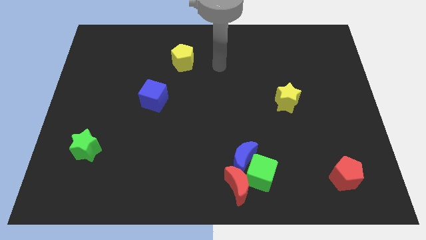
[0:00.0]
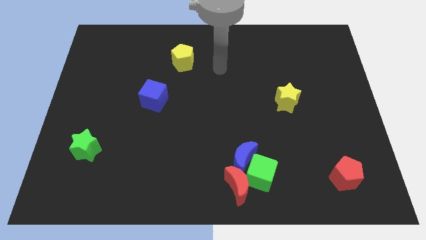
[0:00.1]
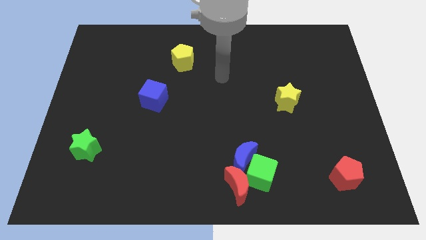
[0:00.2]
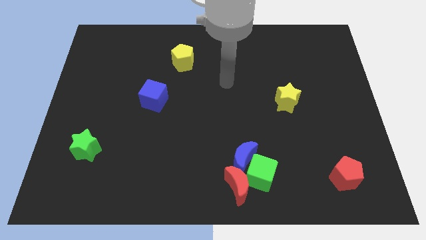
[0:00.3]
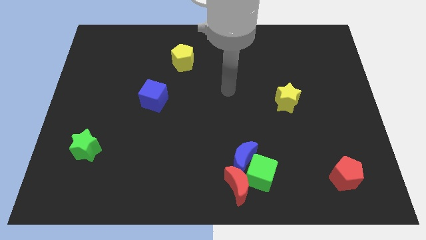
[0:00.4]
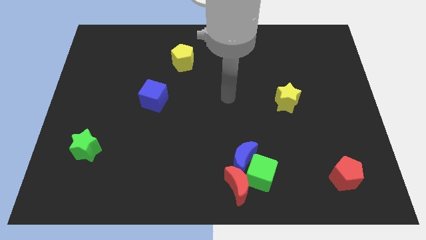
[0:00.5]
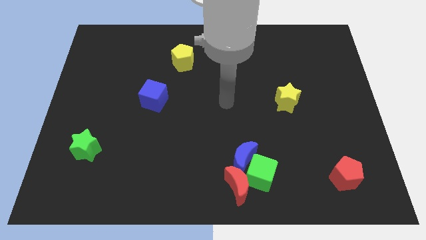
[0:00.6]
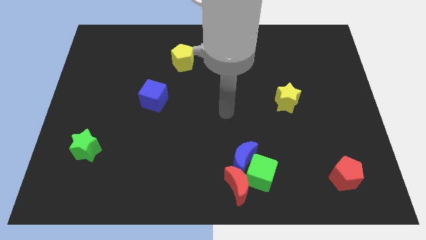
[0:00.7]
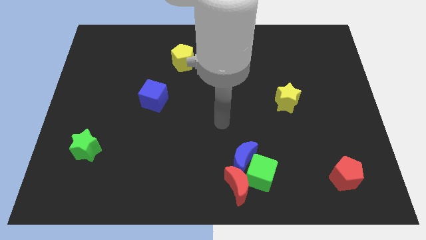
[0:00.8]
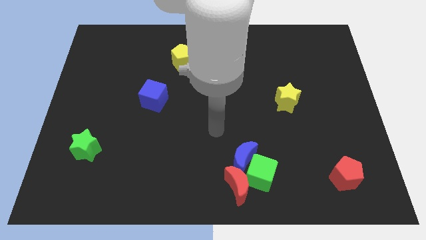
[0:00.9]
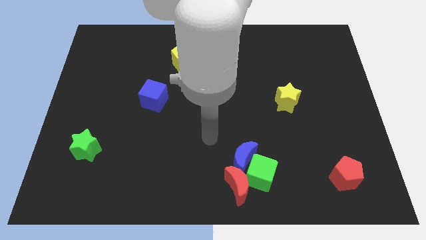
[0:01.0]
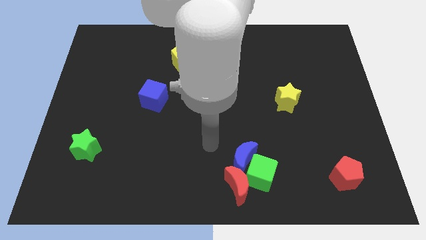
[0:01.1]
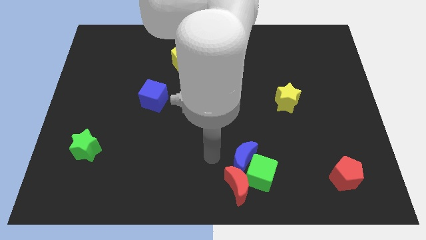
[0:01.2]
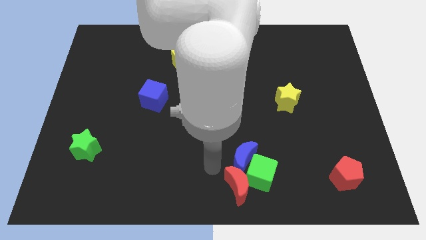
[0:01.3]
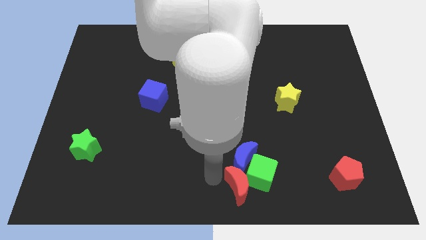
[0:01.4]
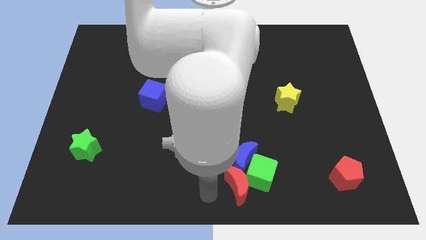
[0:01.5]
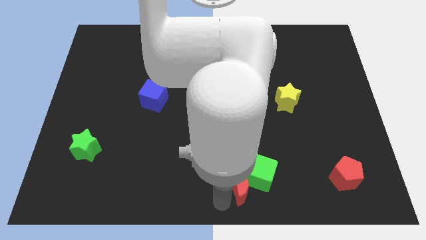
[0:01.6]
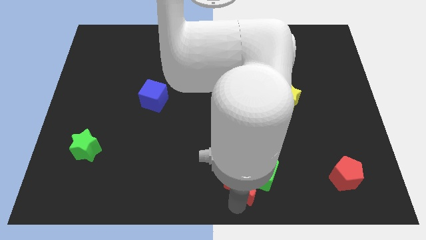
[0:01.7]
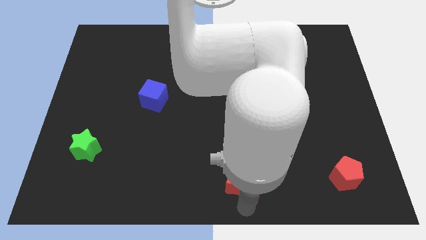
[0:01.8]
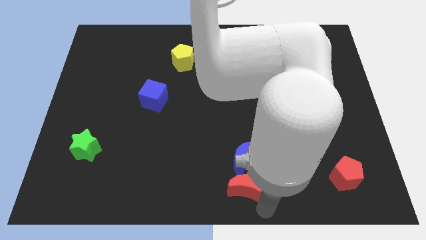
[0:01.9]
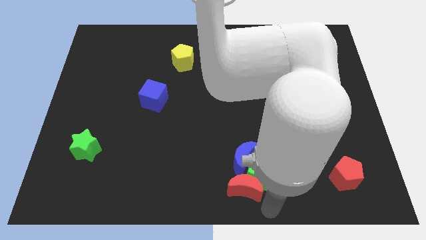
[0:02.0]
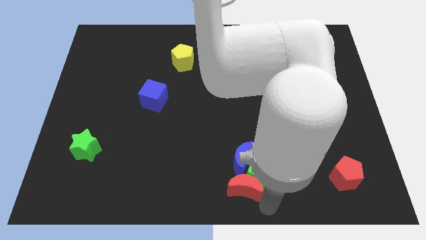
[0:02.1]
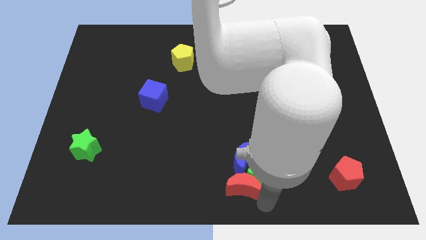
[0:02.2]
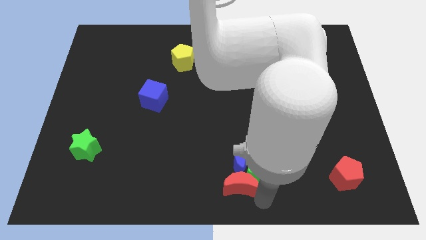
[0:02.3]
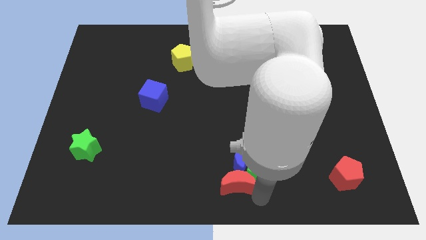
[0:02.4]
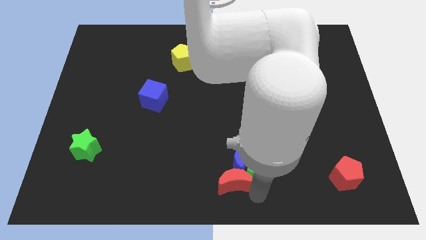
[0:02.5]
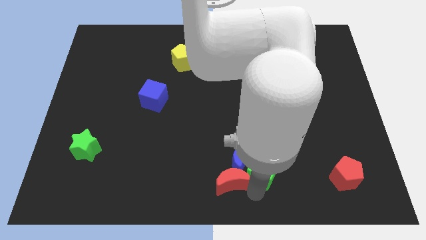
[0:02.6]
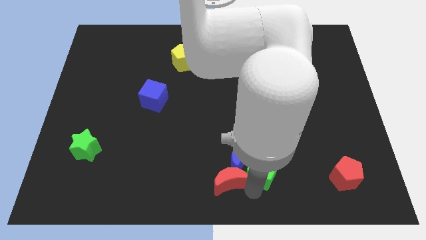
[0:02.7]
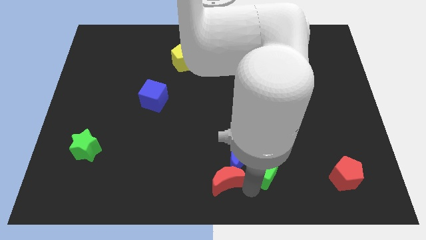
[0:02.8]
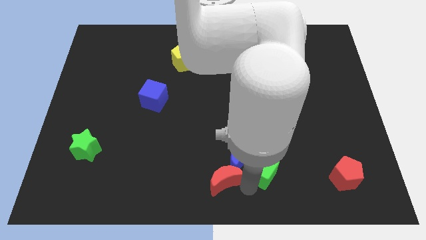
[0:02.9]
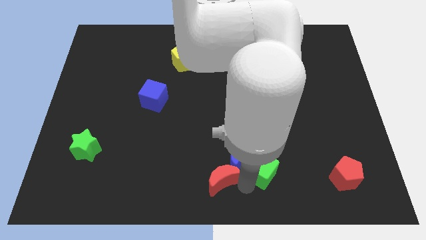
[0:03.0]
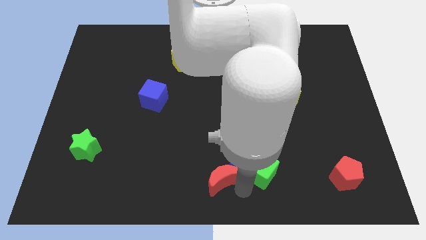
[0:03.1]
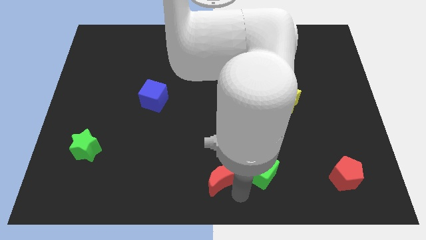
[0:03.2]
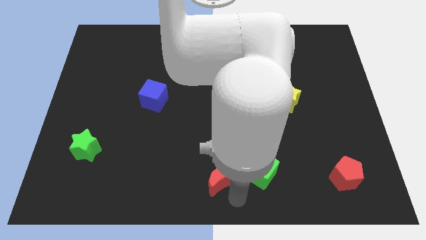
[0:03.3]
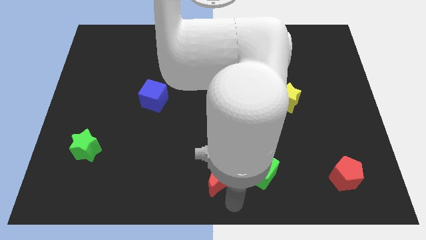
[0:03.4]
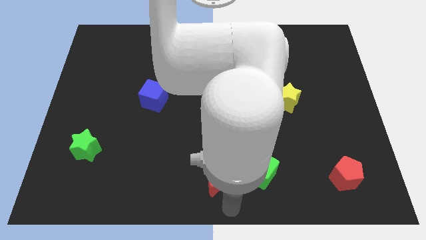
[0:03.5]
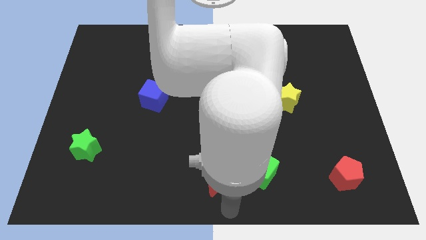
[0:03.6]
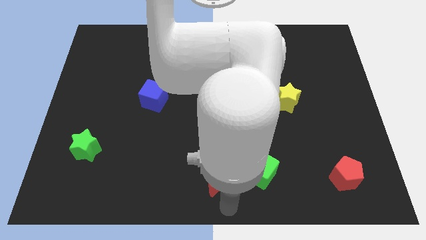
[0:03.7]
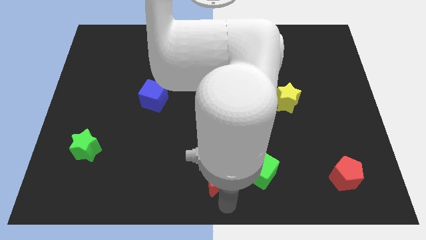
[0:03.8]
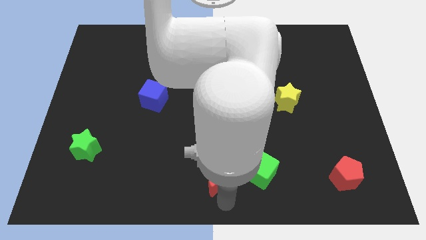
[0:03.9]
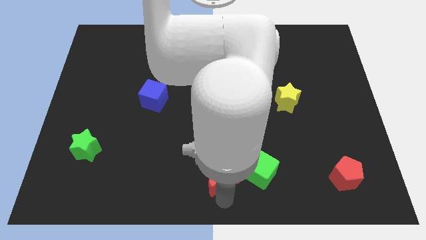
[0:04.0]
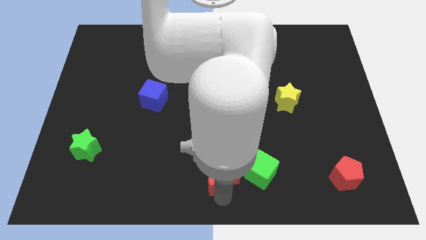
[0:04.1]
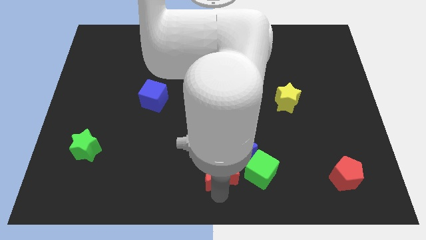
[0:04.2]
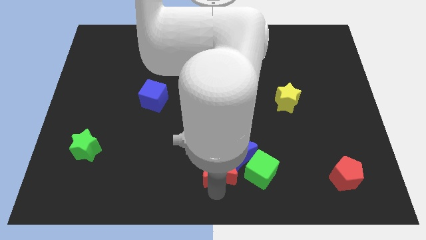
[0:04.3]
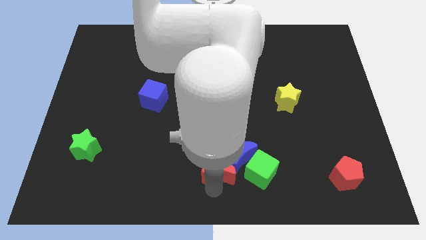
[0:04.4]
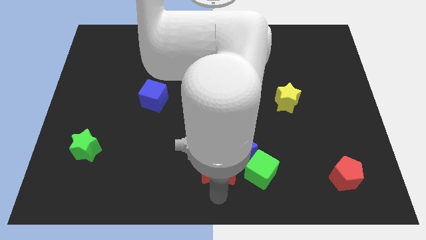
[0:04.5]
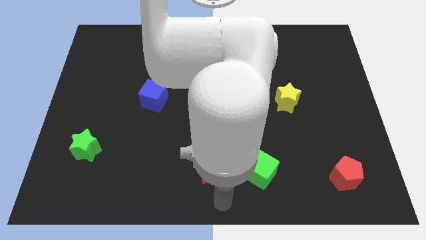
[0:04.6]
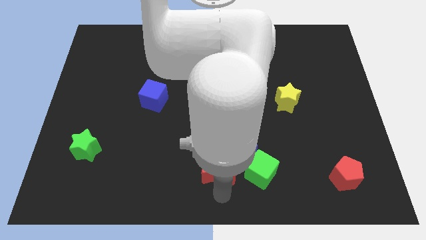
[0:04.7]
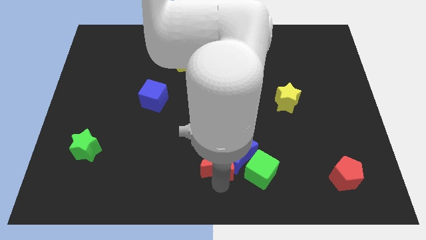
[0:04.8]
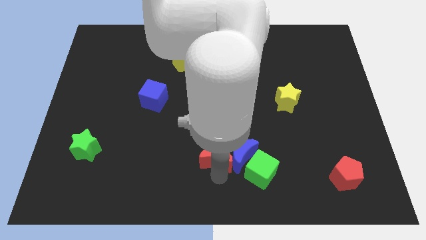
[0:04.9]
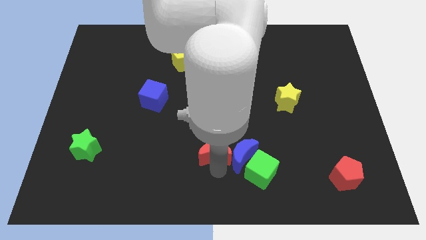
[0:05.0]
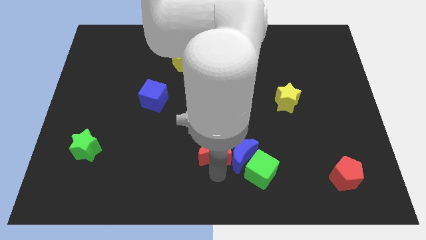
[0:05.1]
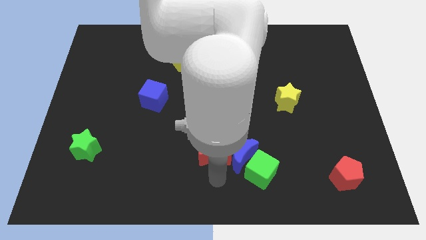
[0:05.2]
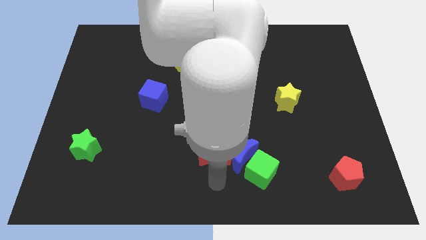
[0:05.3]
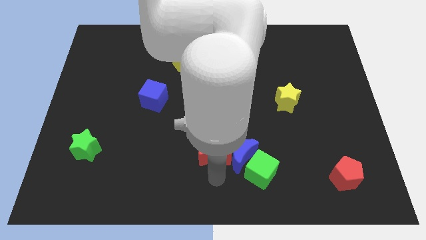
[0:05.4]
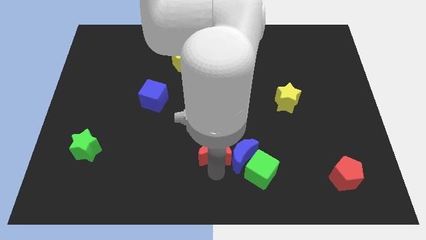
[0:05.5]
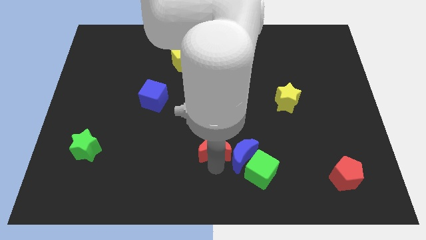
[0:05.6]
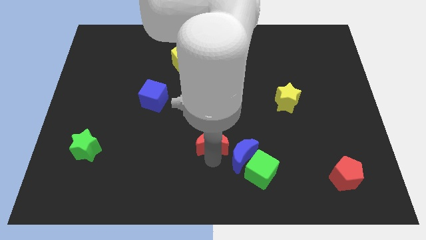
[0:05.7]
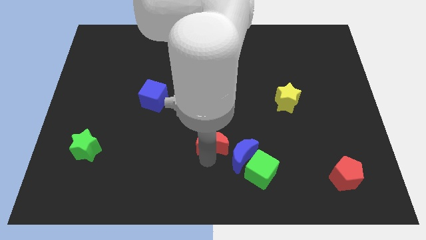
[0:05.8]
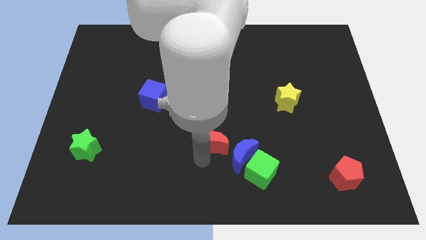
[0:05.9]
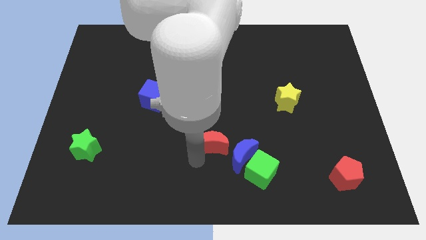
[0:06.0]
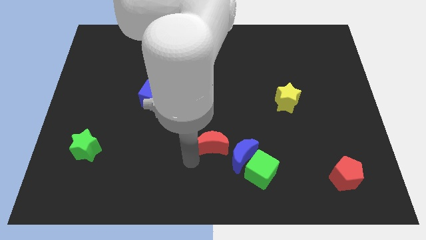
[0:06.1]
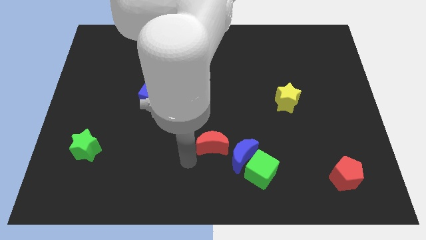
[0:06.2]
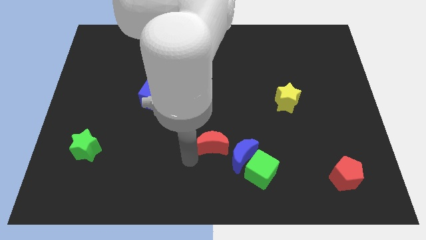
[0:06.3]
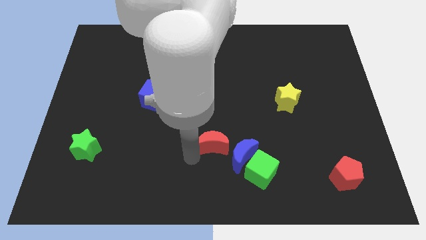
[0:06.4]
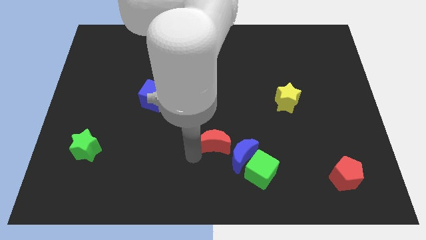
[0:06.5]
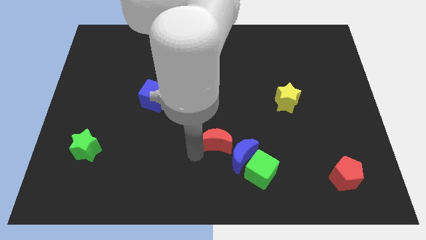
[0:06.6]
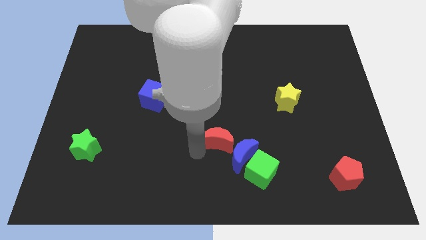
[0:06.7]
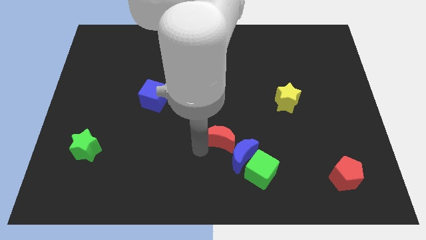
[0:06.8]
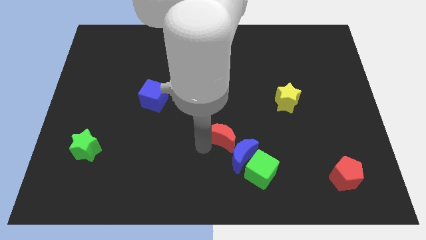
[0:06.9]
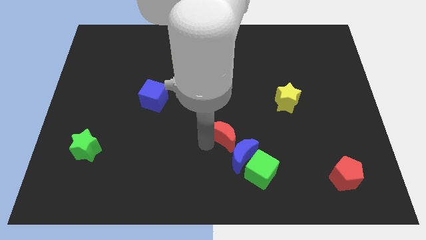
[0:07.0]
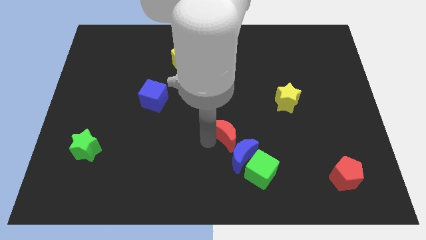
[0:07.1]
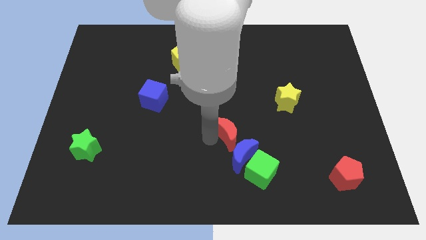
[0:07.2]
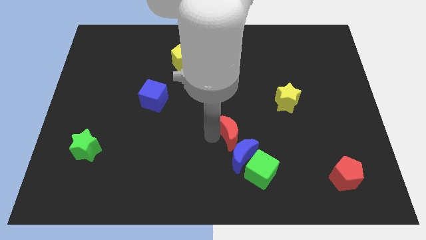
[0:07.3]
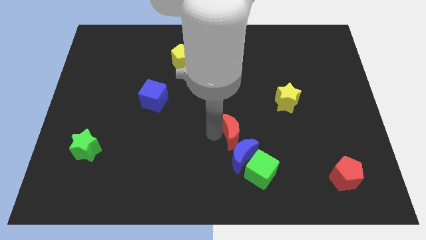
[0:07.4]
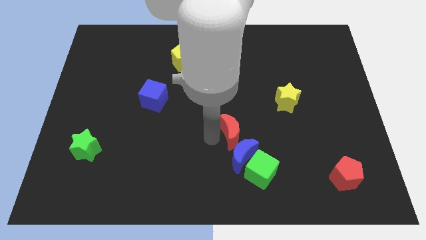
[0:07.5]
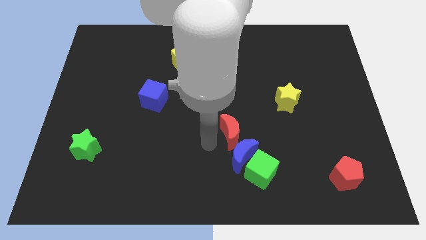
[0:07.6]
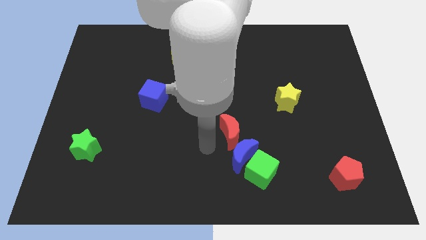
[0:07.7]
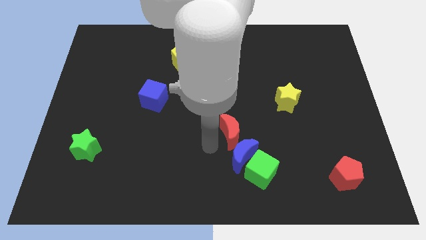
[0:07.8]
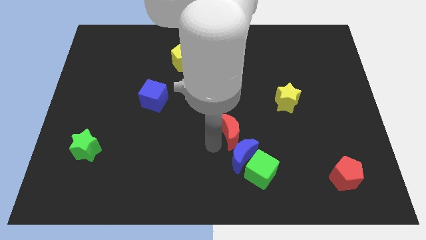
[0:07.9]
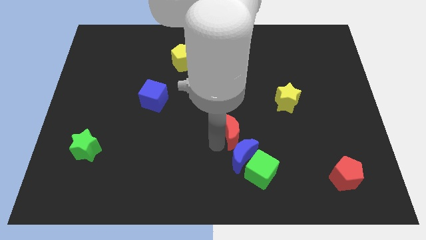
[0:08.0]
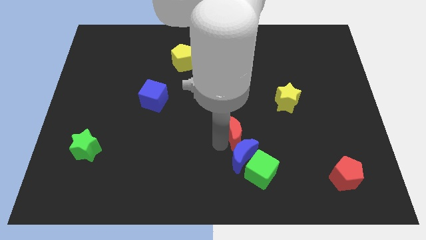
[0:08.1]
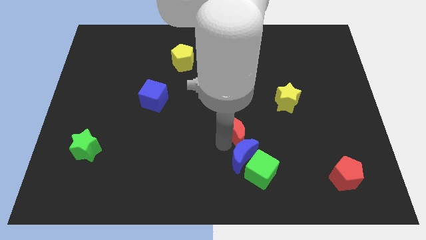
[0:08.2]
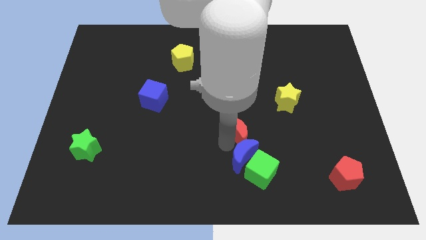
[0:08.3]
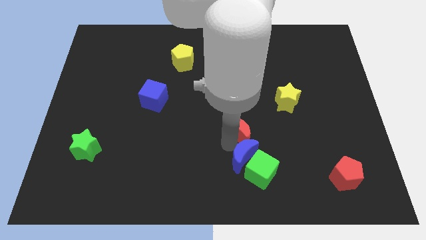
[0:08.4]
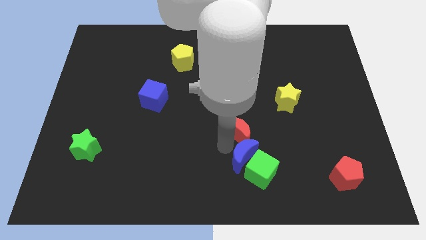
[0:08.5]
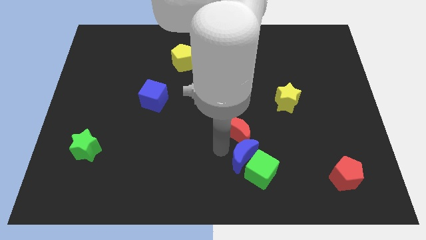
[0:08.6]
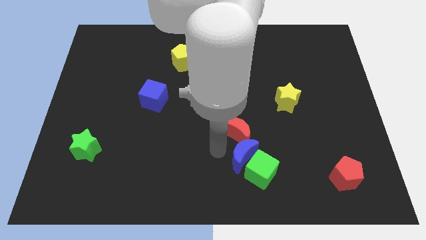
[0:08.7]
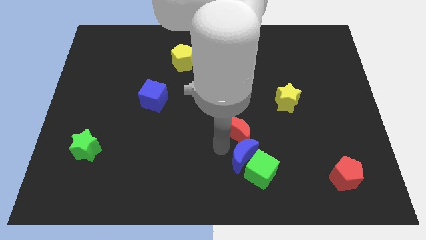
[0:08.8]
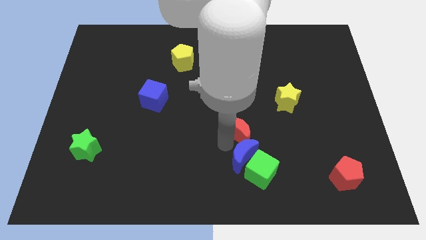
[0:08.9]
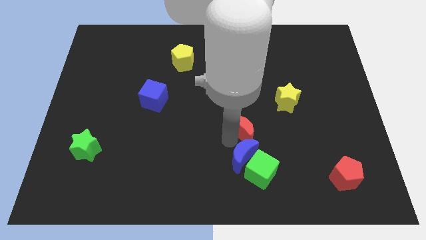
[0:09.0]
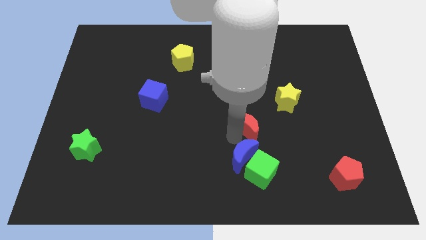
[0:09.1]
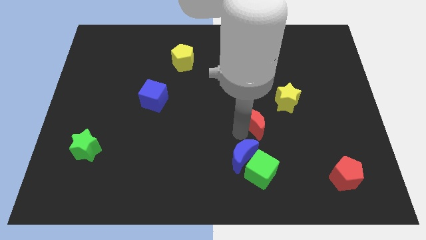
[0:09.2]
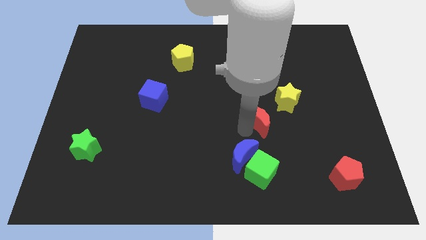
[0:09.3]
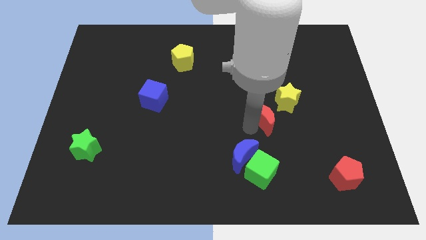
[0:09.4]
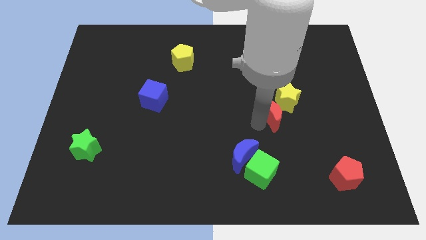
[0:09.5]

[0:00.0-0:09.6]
move the red moon to the yellow star
